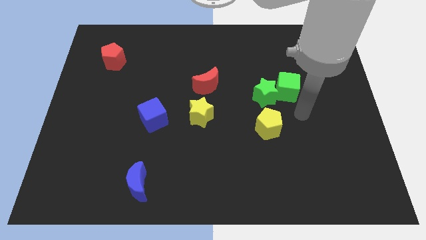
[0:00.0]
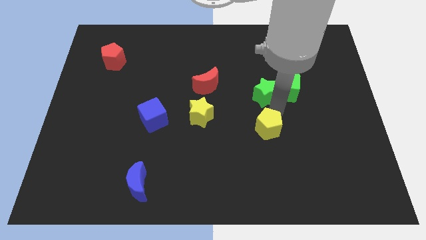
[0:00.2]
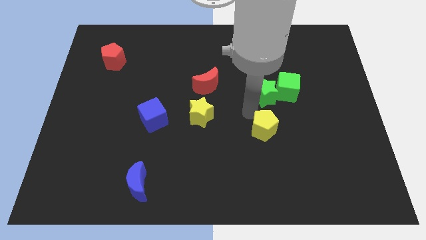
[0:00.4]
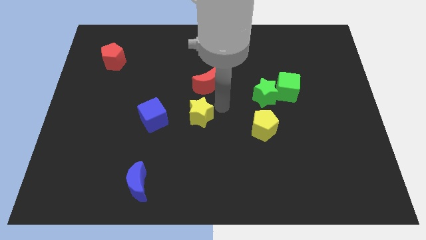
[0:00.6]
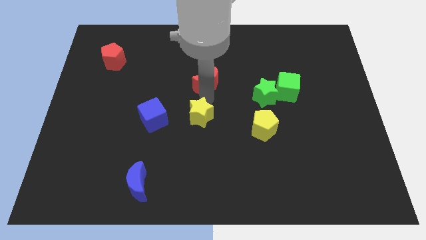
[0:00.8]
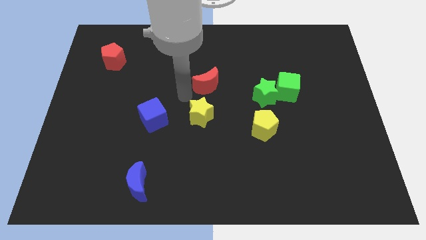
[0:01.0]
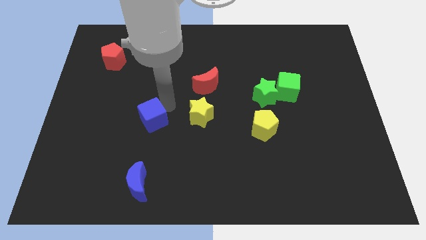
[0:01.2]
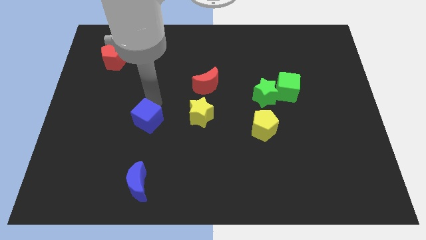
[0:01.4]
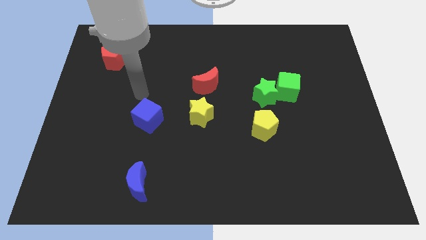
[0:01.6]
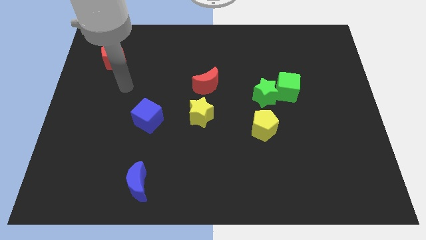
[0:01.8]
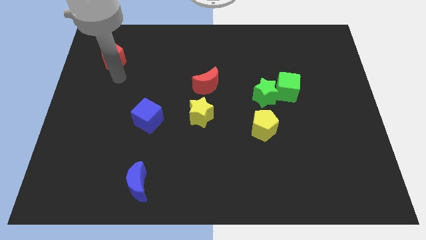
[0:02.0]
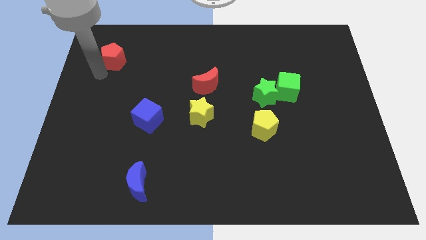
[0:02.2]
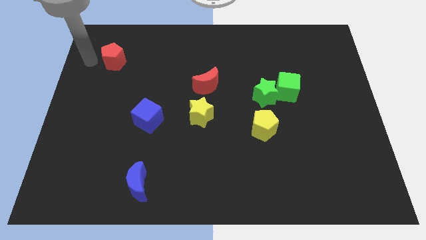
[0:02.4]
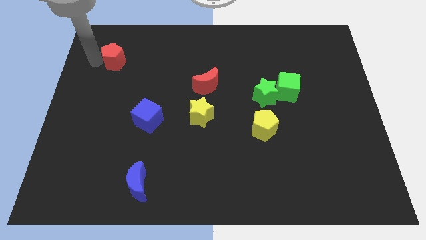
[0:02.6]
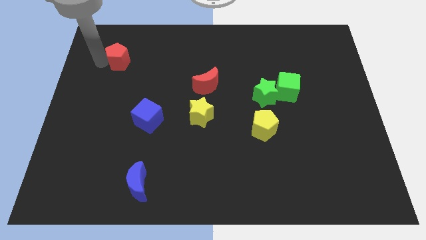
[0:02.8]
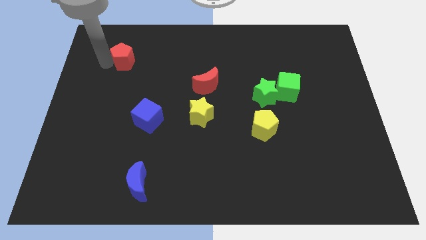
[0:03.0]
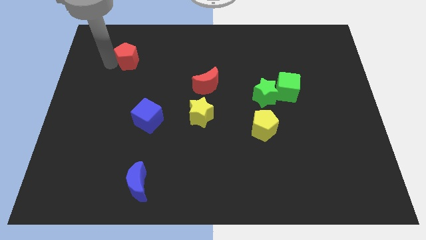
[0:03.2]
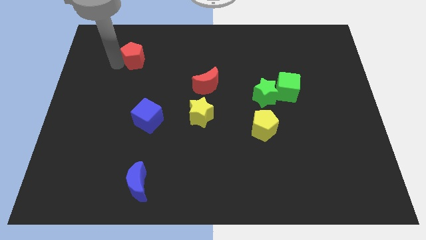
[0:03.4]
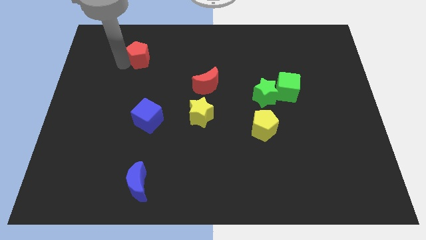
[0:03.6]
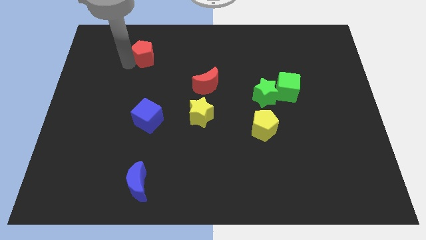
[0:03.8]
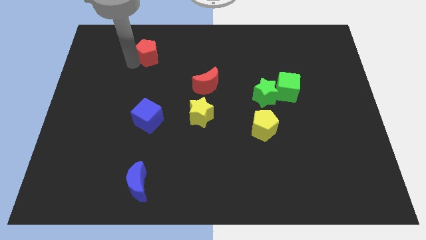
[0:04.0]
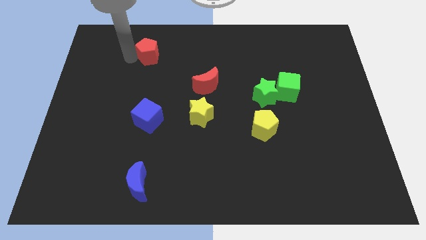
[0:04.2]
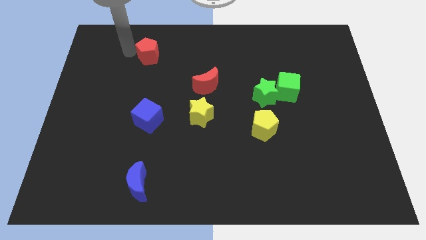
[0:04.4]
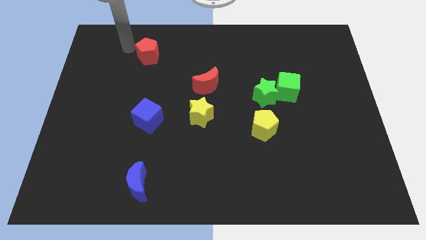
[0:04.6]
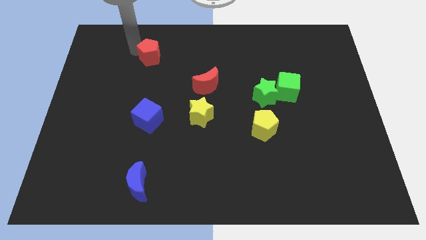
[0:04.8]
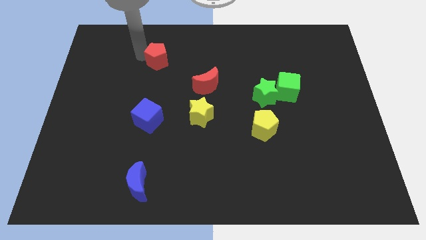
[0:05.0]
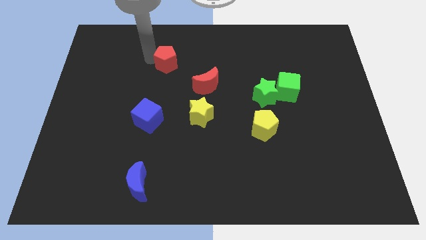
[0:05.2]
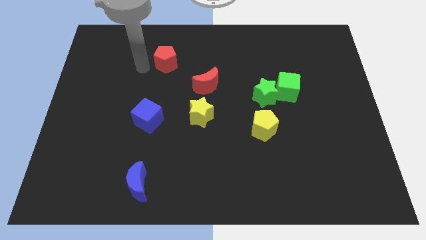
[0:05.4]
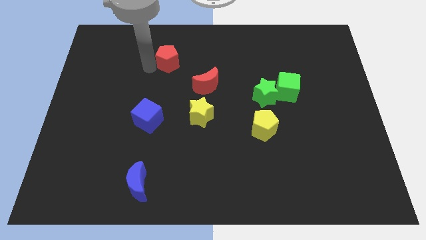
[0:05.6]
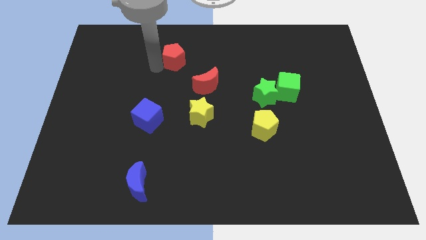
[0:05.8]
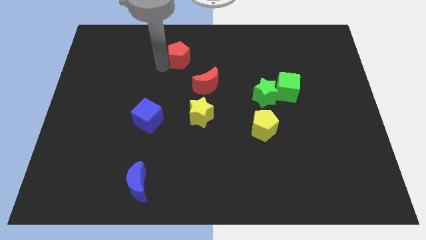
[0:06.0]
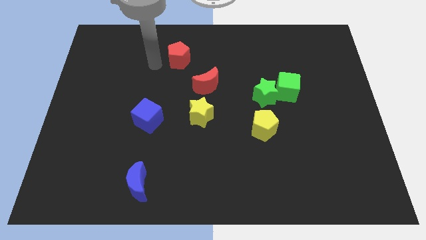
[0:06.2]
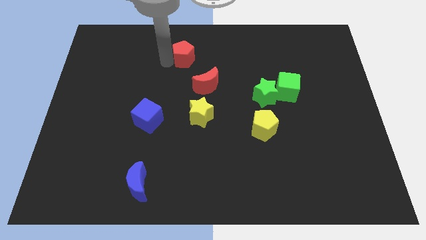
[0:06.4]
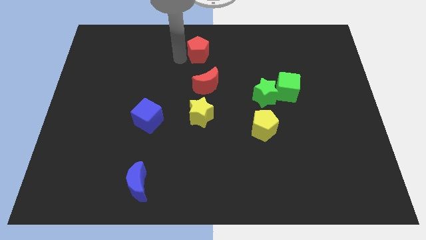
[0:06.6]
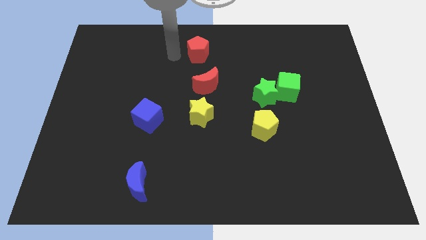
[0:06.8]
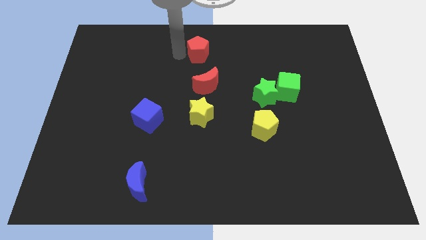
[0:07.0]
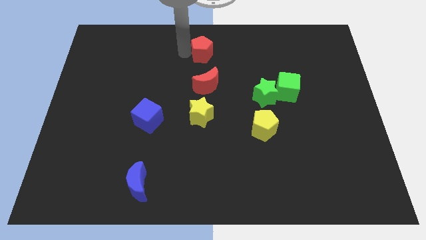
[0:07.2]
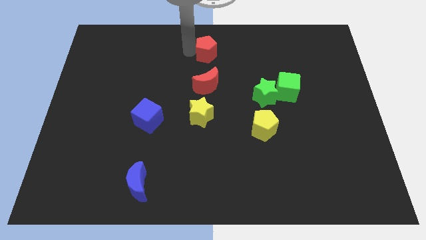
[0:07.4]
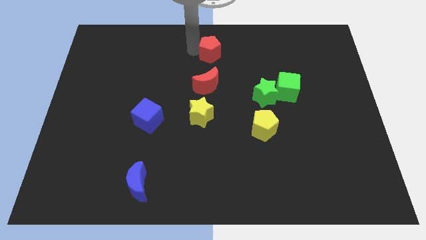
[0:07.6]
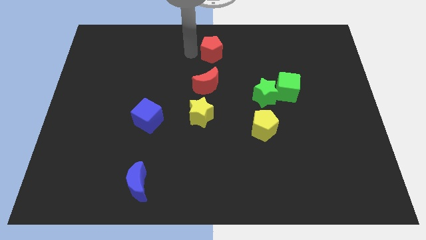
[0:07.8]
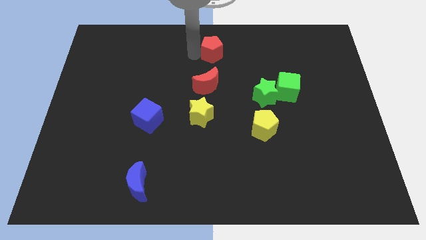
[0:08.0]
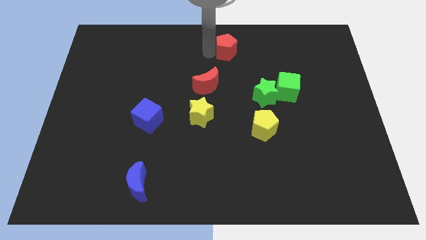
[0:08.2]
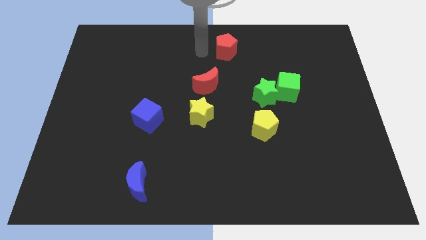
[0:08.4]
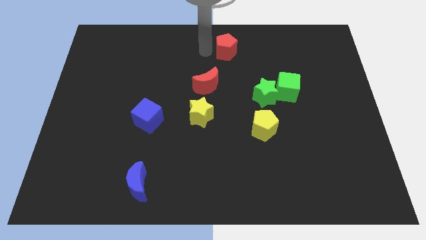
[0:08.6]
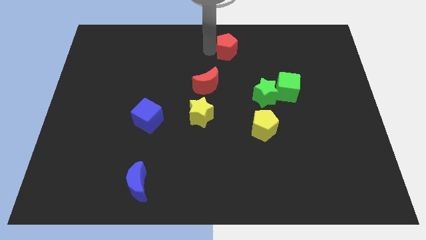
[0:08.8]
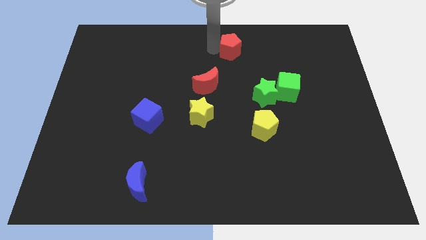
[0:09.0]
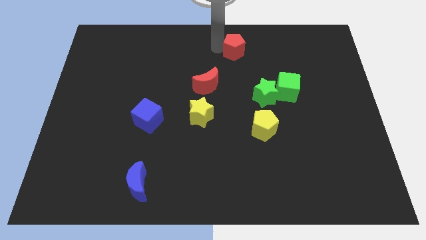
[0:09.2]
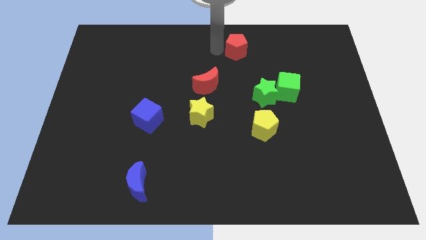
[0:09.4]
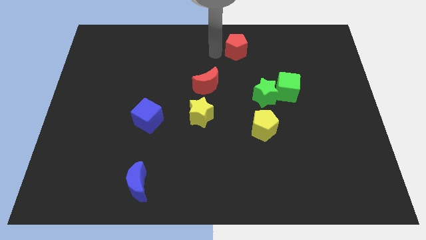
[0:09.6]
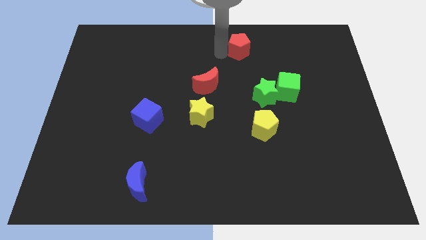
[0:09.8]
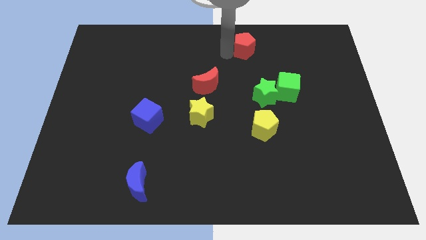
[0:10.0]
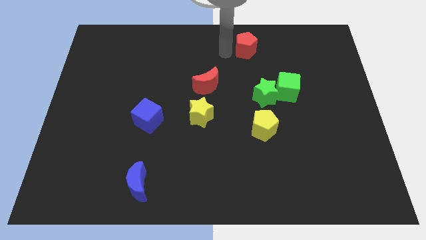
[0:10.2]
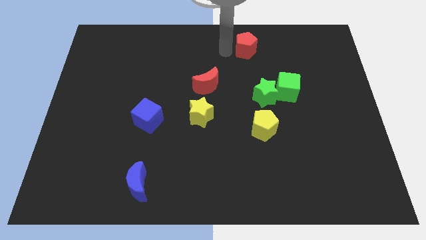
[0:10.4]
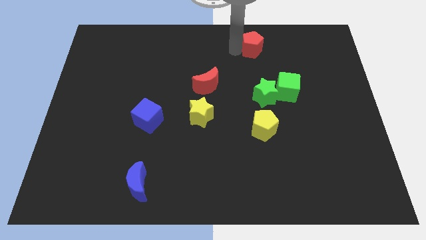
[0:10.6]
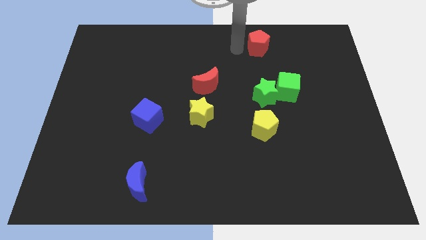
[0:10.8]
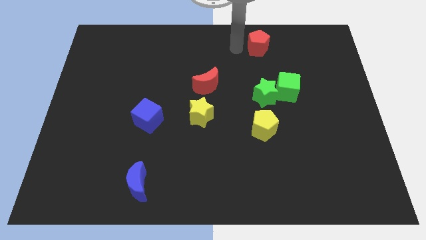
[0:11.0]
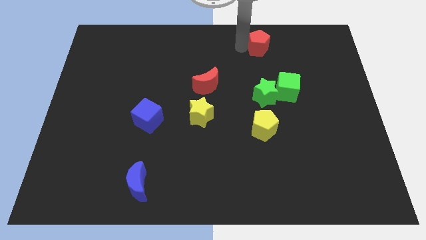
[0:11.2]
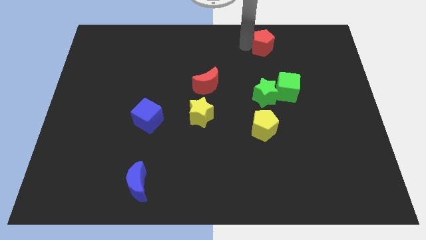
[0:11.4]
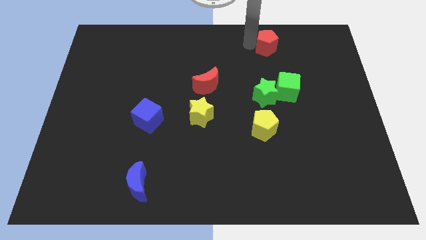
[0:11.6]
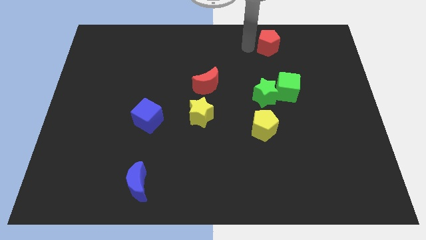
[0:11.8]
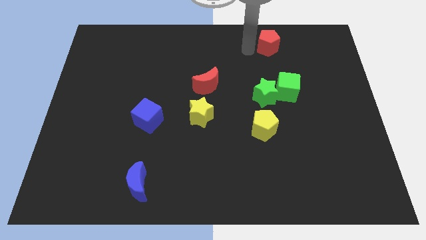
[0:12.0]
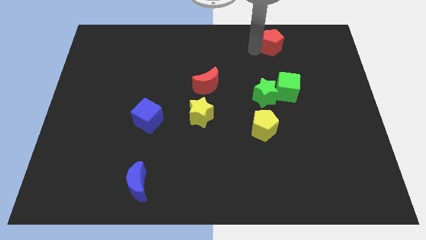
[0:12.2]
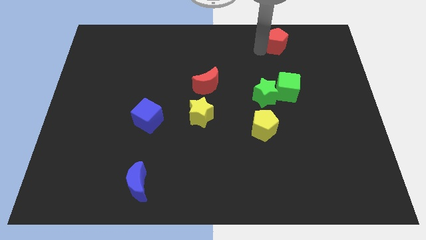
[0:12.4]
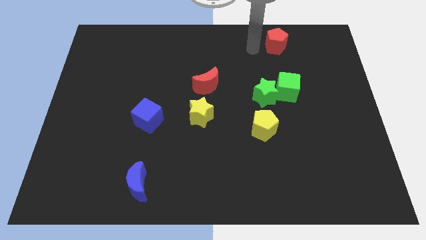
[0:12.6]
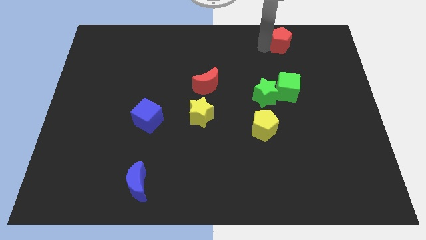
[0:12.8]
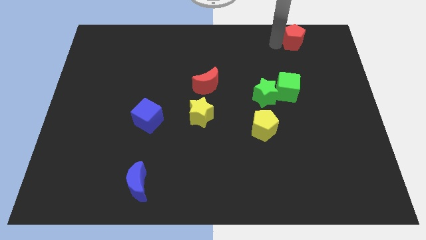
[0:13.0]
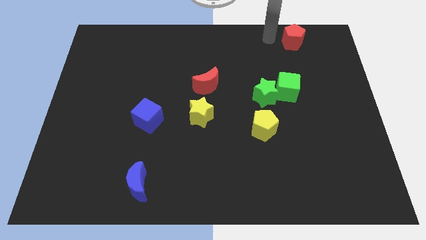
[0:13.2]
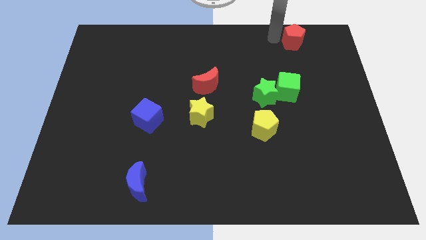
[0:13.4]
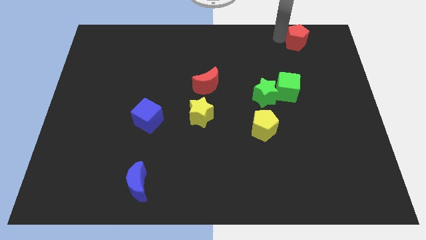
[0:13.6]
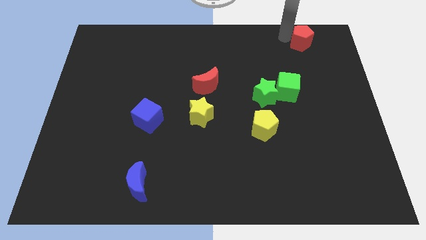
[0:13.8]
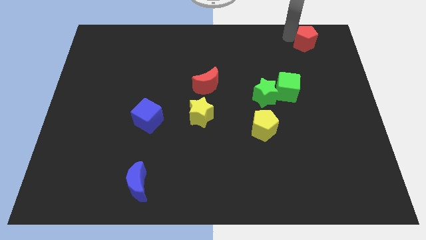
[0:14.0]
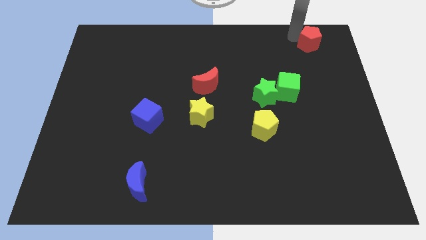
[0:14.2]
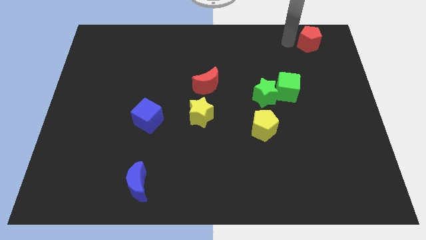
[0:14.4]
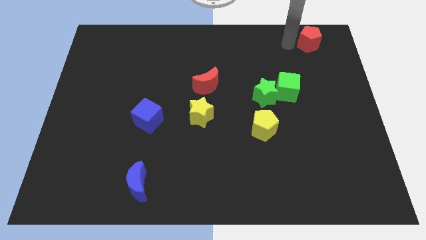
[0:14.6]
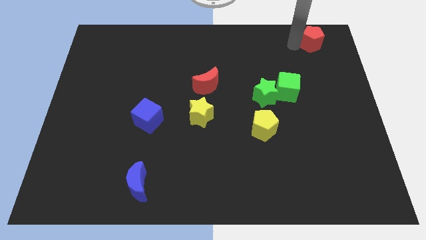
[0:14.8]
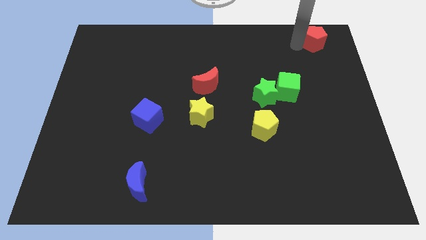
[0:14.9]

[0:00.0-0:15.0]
push the red pentagon to the top right of the board
